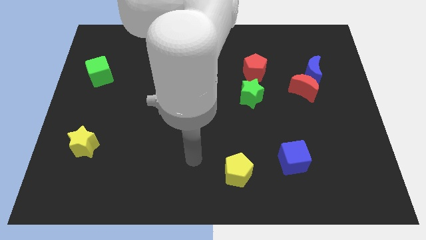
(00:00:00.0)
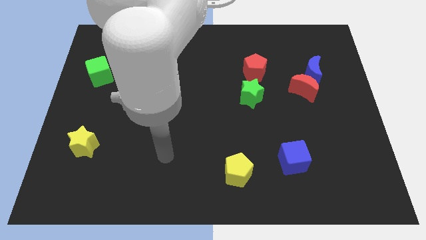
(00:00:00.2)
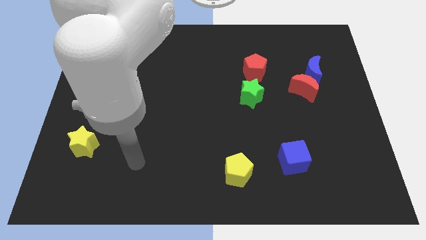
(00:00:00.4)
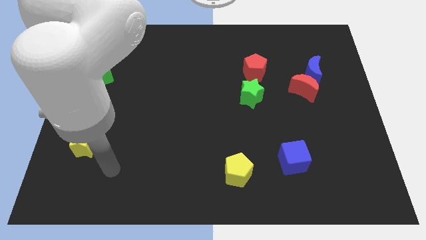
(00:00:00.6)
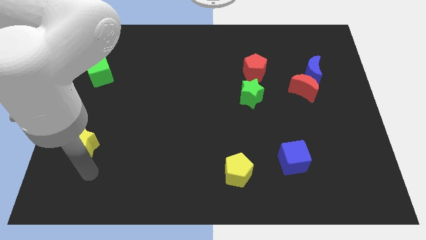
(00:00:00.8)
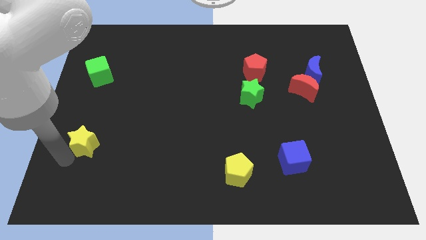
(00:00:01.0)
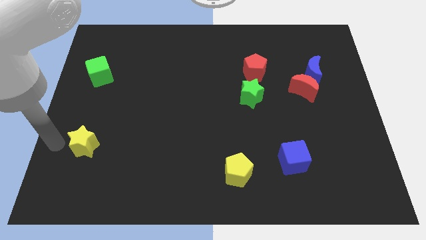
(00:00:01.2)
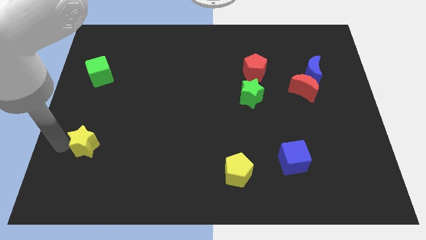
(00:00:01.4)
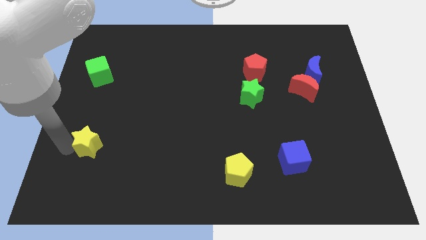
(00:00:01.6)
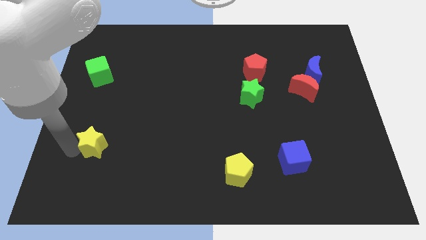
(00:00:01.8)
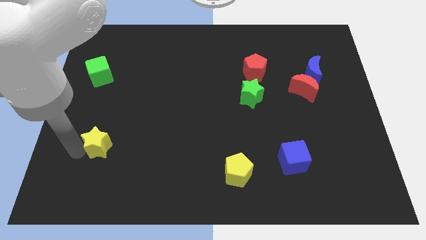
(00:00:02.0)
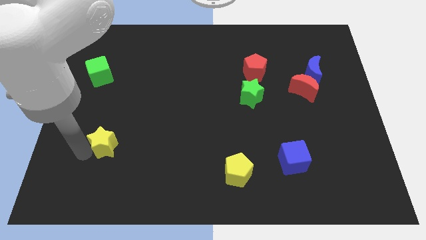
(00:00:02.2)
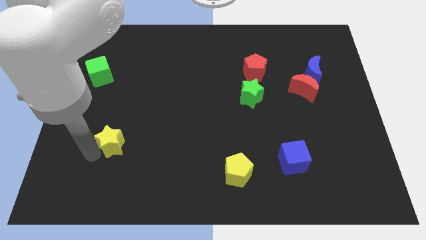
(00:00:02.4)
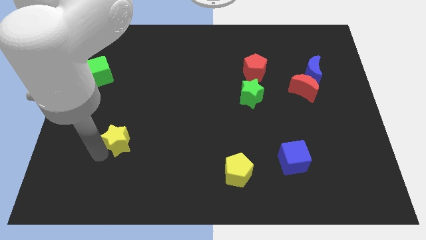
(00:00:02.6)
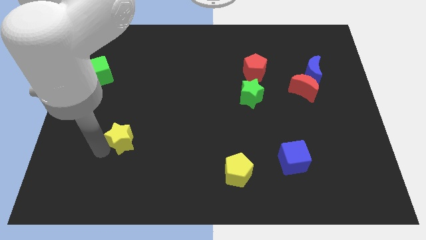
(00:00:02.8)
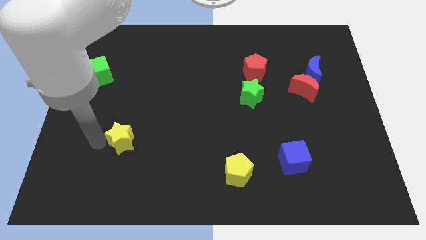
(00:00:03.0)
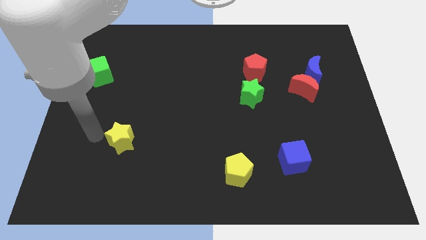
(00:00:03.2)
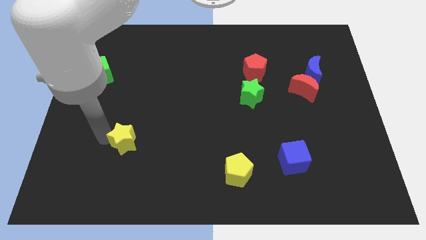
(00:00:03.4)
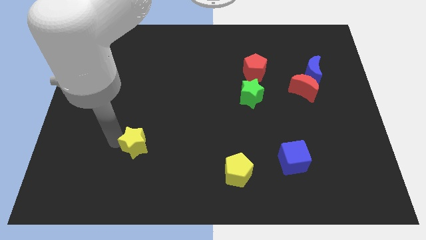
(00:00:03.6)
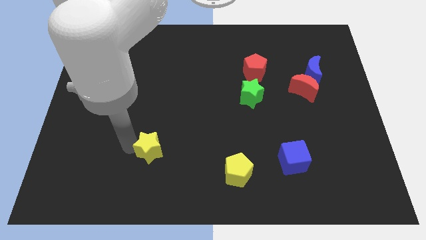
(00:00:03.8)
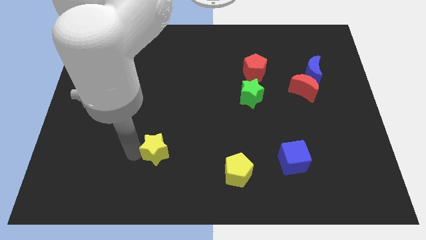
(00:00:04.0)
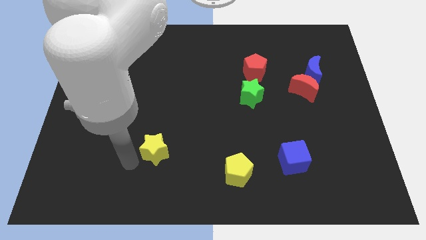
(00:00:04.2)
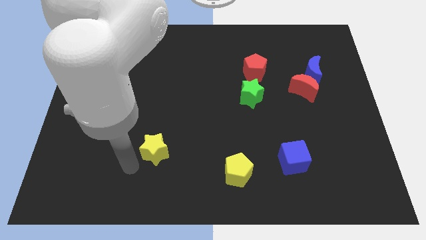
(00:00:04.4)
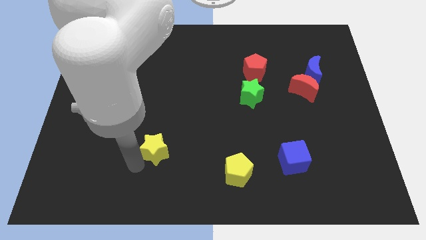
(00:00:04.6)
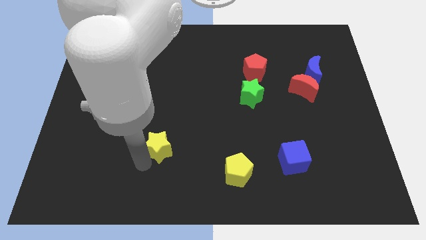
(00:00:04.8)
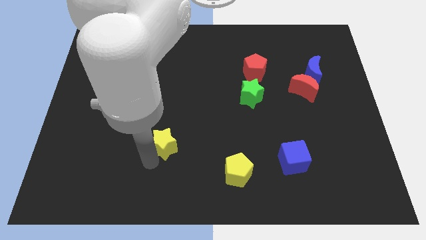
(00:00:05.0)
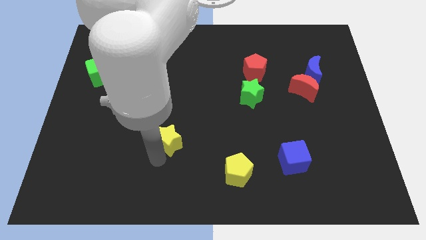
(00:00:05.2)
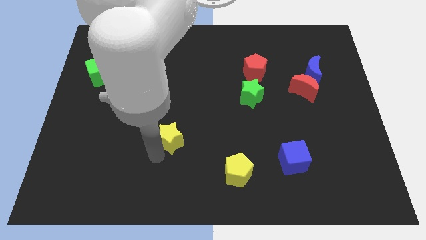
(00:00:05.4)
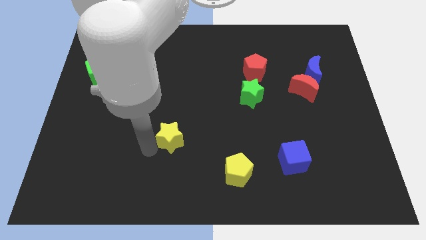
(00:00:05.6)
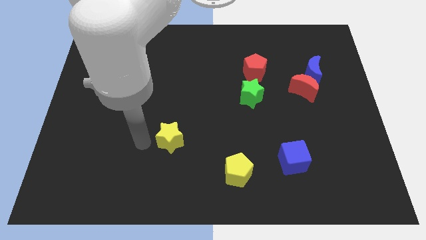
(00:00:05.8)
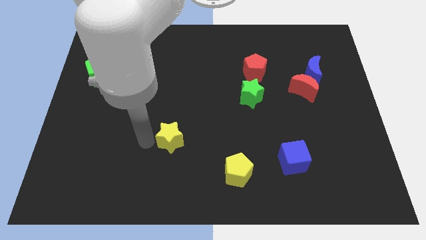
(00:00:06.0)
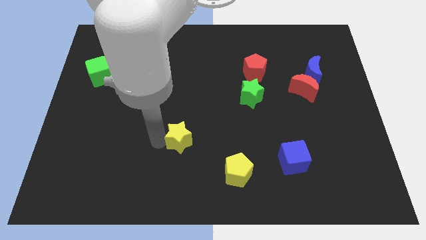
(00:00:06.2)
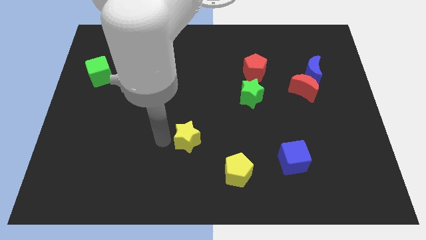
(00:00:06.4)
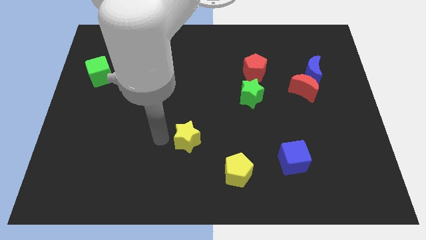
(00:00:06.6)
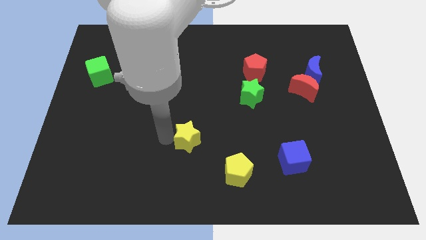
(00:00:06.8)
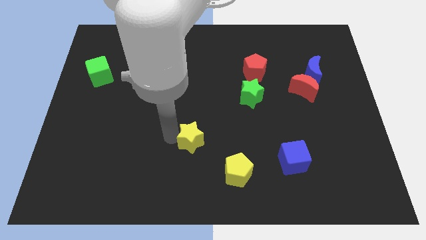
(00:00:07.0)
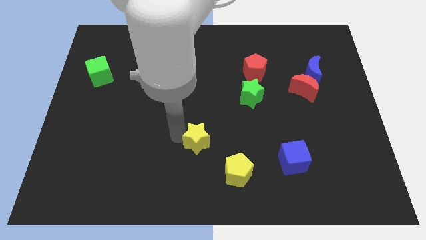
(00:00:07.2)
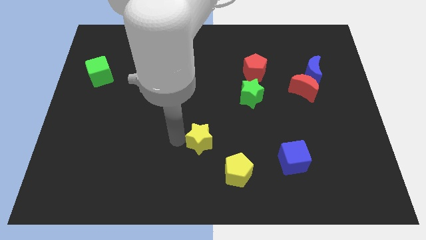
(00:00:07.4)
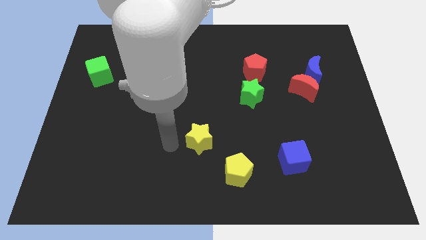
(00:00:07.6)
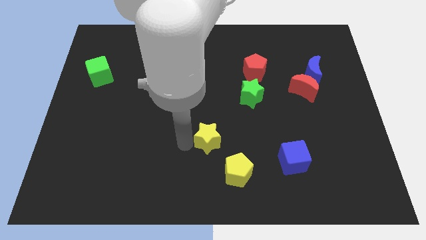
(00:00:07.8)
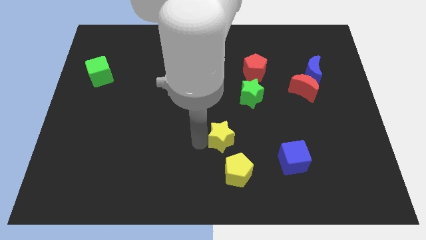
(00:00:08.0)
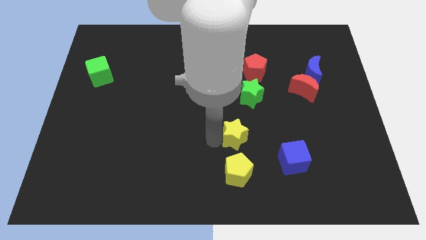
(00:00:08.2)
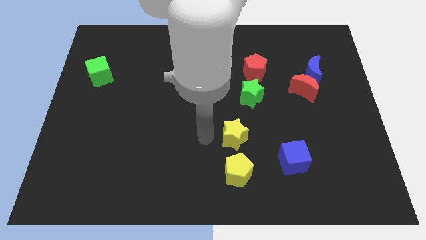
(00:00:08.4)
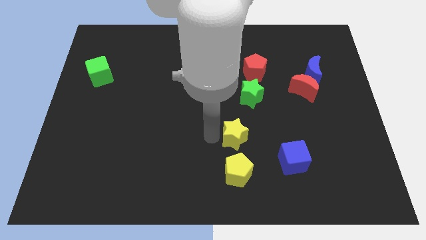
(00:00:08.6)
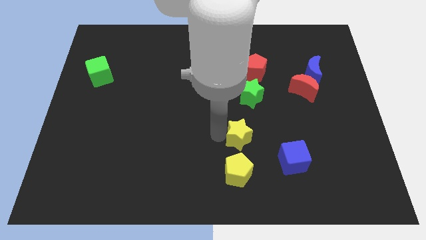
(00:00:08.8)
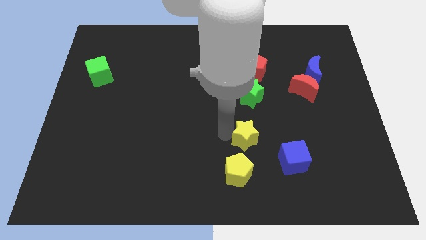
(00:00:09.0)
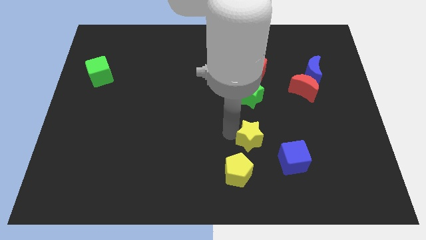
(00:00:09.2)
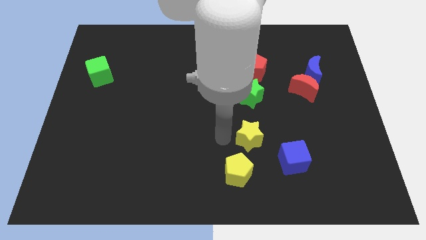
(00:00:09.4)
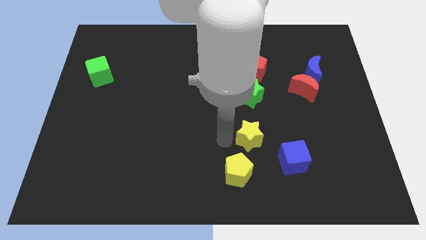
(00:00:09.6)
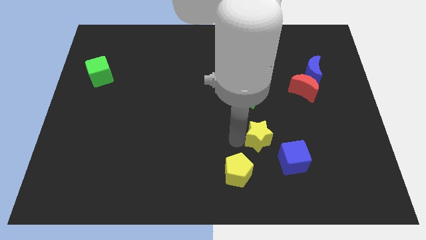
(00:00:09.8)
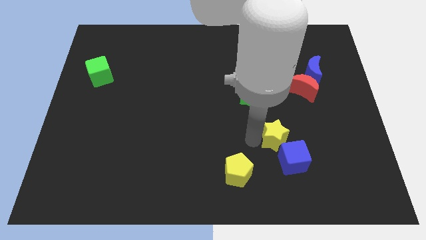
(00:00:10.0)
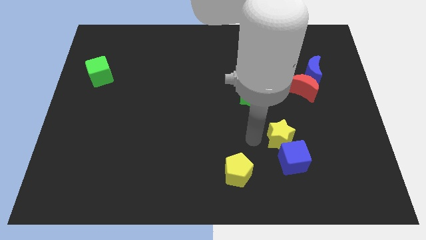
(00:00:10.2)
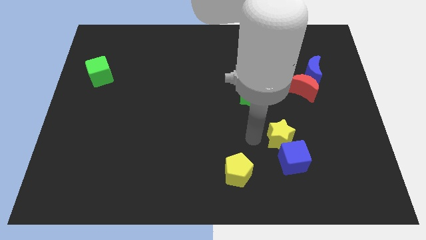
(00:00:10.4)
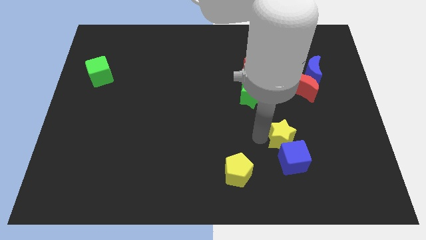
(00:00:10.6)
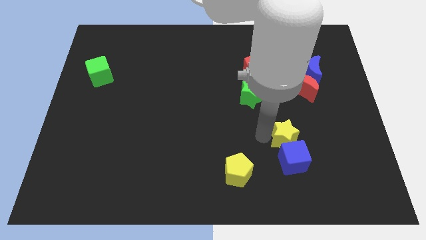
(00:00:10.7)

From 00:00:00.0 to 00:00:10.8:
push the yellow star diagonally up and to the right of the blue cube

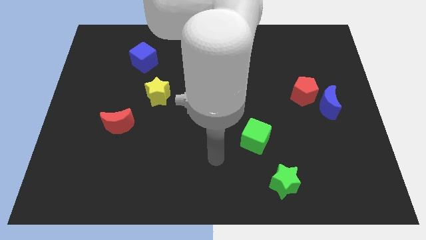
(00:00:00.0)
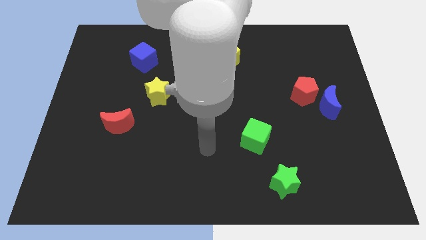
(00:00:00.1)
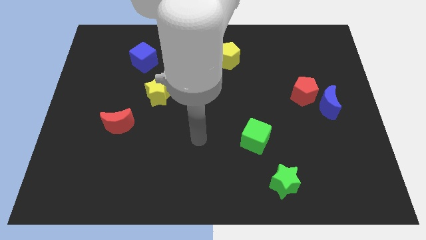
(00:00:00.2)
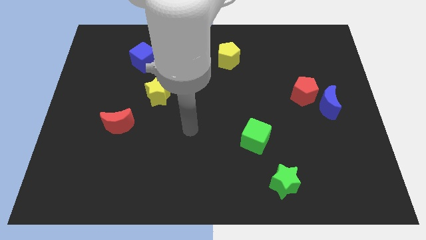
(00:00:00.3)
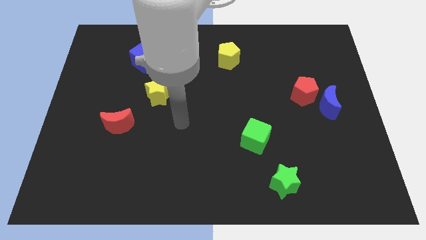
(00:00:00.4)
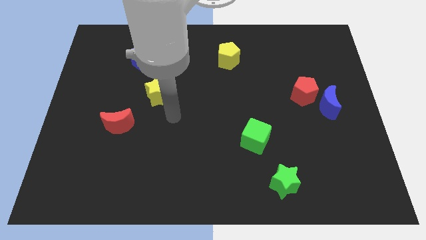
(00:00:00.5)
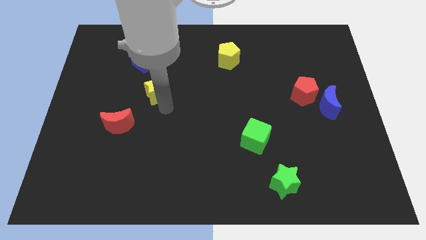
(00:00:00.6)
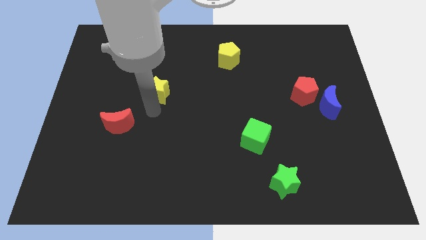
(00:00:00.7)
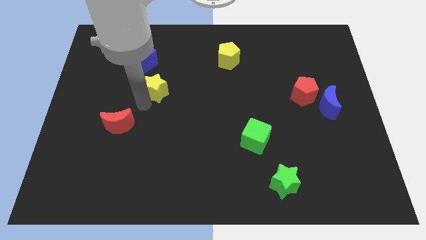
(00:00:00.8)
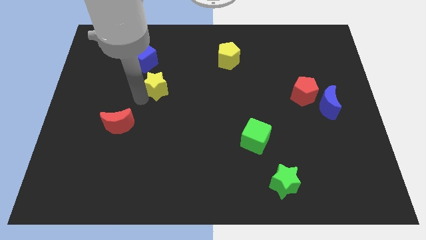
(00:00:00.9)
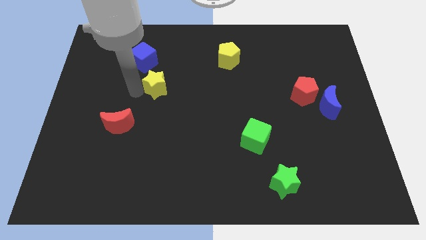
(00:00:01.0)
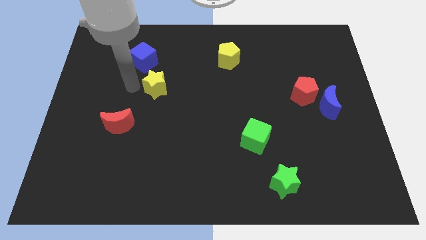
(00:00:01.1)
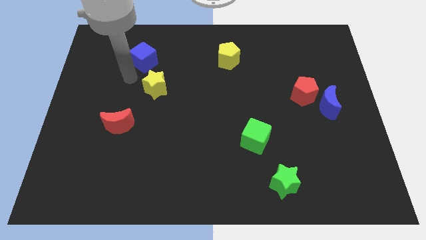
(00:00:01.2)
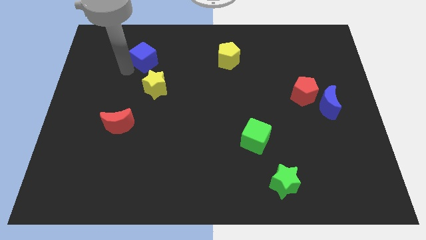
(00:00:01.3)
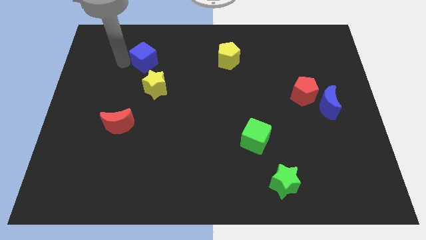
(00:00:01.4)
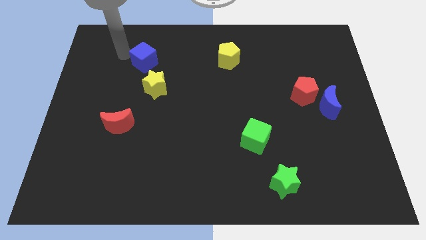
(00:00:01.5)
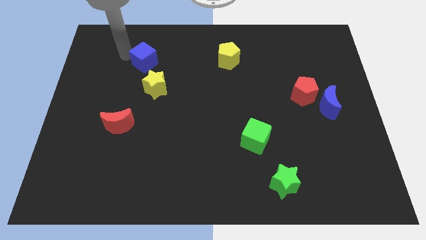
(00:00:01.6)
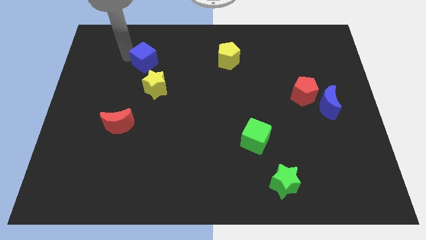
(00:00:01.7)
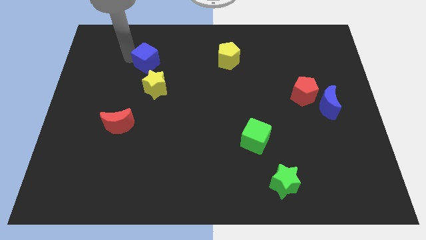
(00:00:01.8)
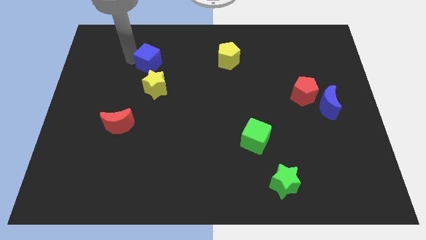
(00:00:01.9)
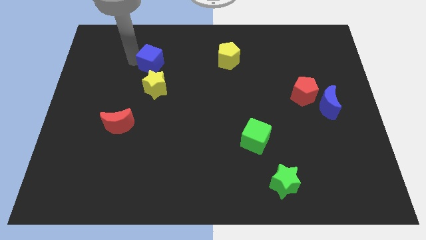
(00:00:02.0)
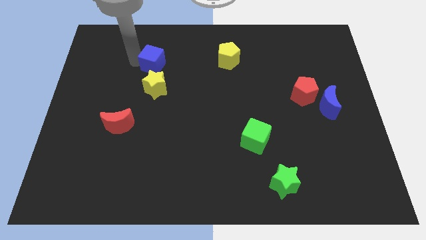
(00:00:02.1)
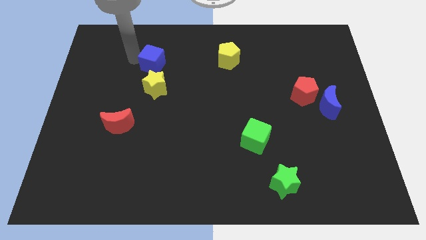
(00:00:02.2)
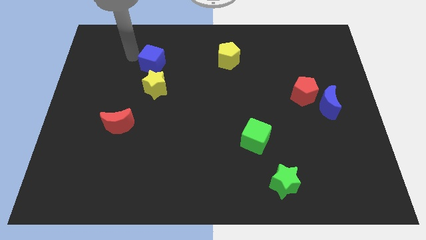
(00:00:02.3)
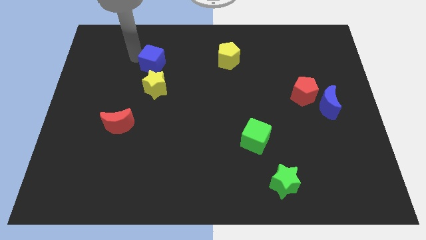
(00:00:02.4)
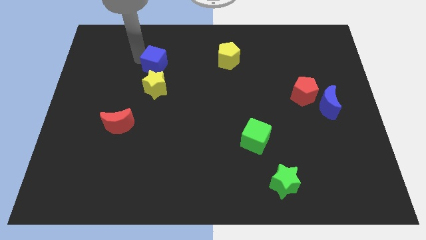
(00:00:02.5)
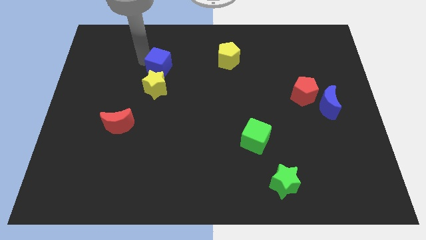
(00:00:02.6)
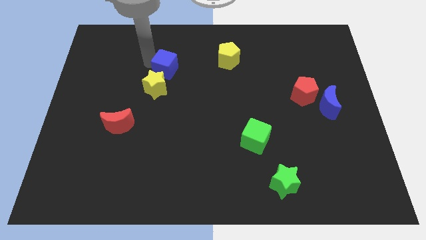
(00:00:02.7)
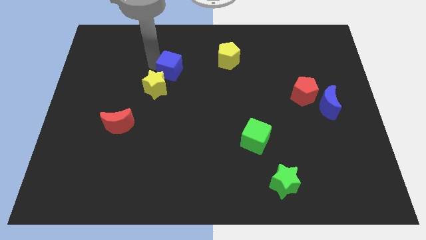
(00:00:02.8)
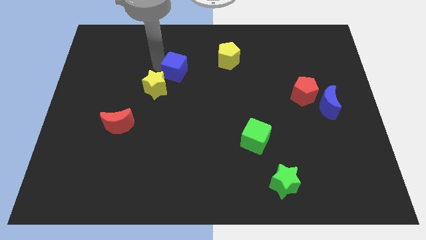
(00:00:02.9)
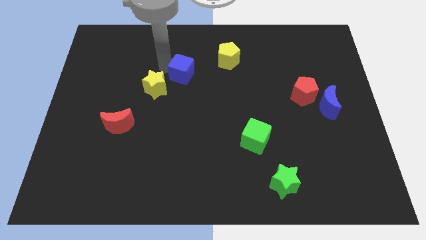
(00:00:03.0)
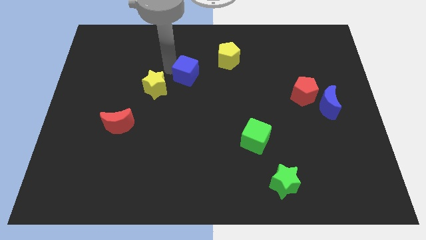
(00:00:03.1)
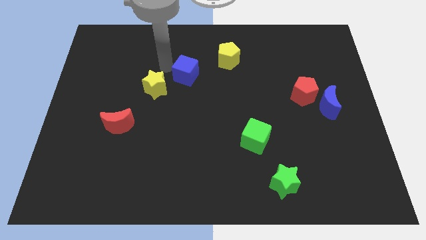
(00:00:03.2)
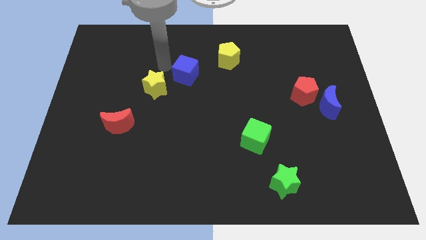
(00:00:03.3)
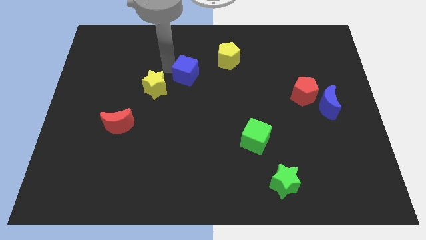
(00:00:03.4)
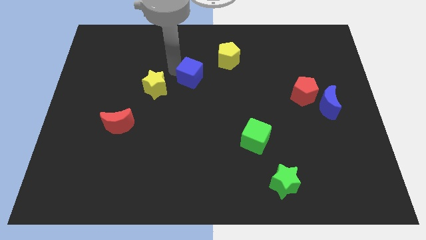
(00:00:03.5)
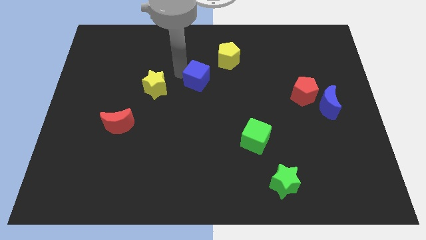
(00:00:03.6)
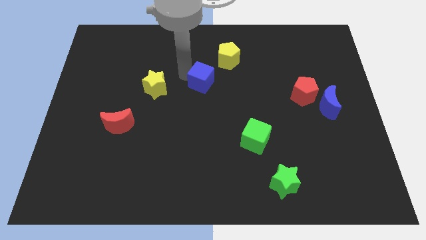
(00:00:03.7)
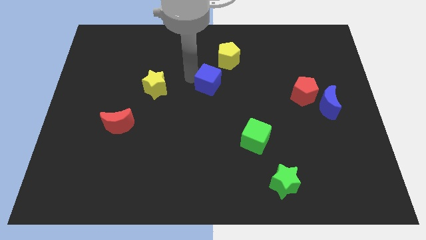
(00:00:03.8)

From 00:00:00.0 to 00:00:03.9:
slide the blue cube below the yellow pentagon
